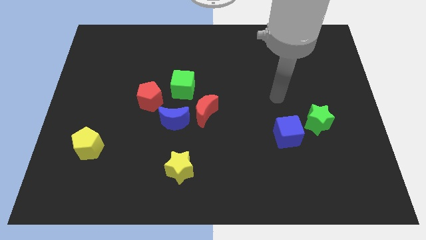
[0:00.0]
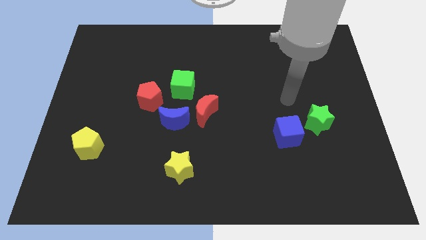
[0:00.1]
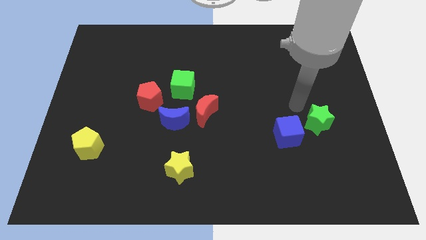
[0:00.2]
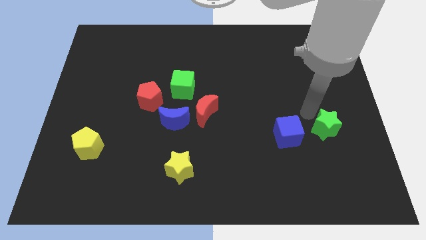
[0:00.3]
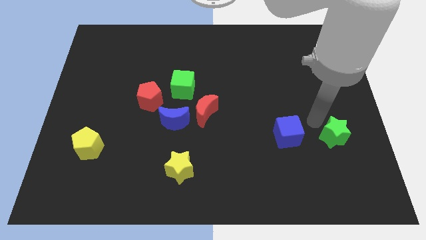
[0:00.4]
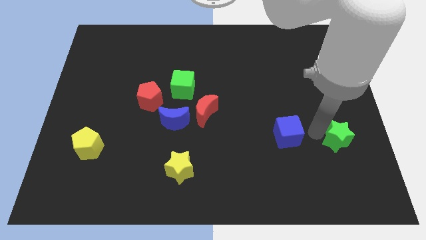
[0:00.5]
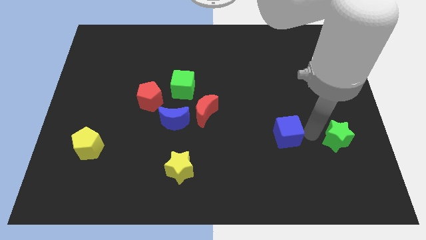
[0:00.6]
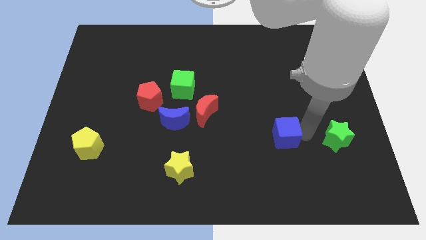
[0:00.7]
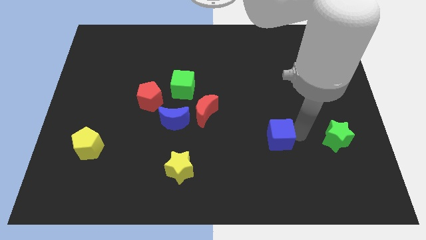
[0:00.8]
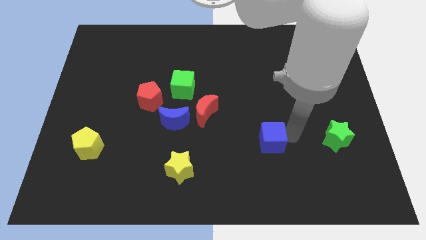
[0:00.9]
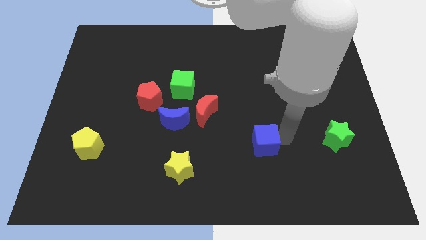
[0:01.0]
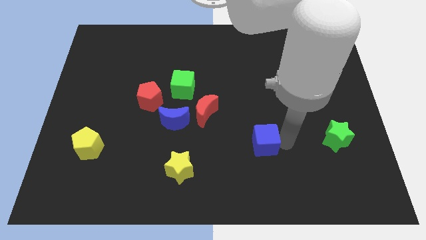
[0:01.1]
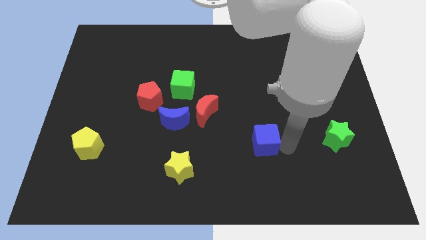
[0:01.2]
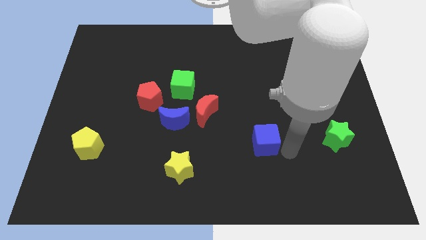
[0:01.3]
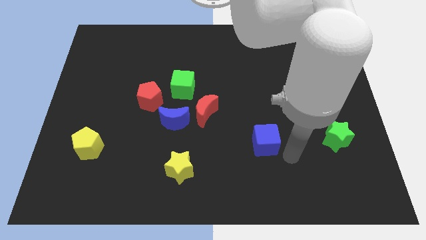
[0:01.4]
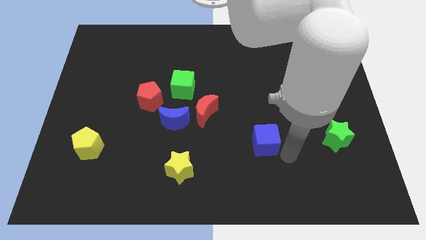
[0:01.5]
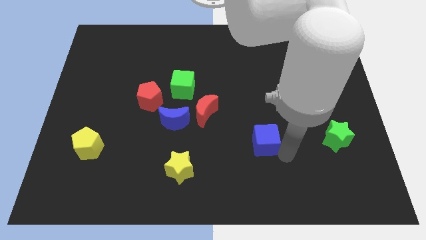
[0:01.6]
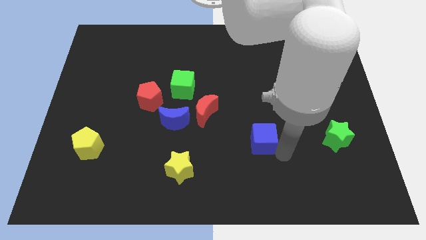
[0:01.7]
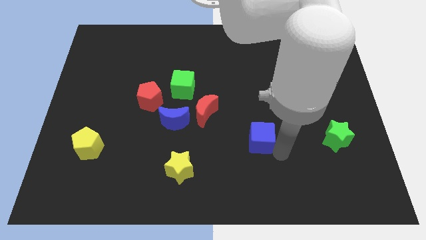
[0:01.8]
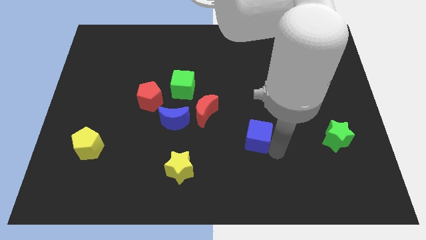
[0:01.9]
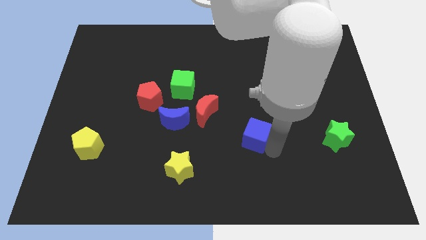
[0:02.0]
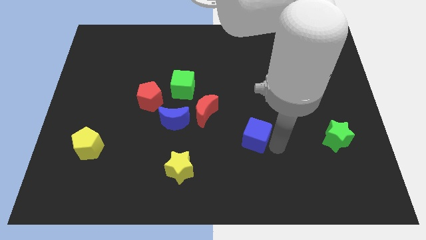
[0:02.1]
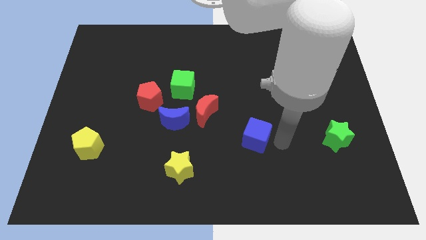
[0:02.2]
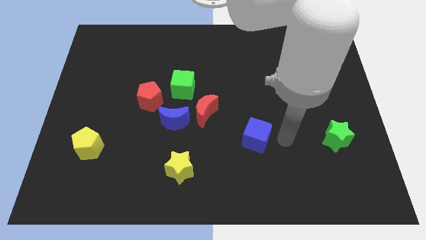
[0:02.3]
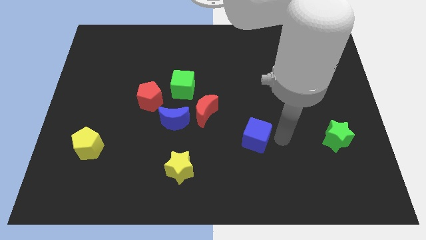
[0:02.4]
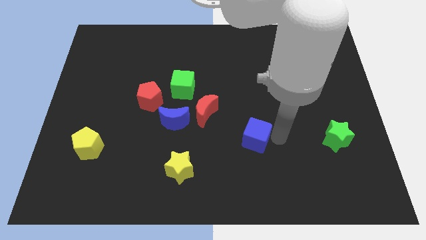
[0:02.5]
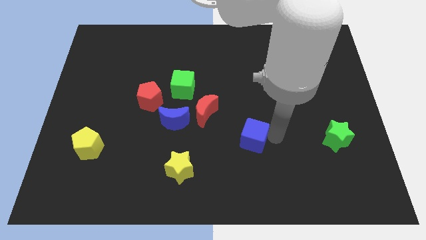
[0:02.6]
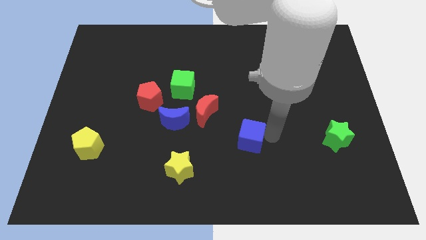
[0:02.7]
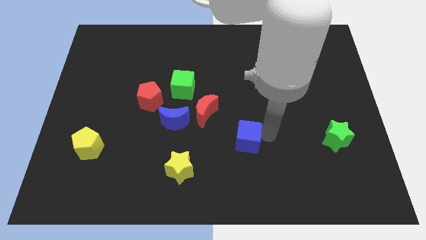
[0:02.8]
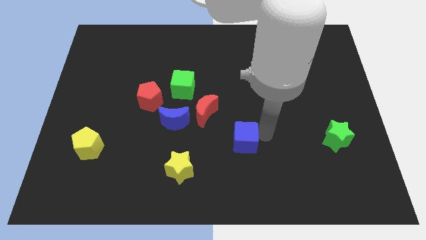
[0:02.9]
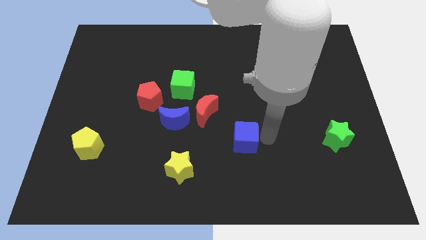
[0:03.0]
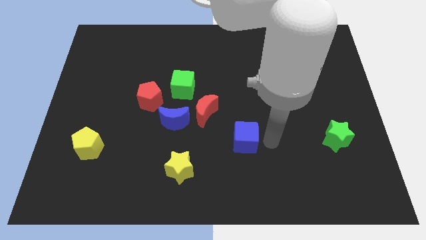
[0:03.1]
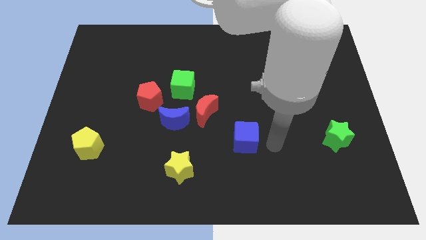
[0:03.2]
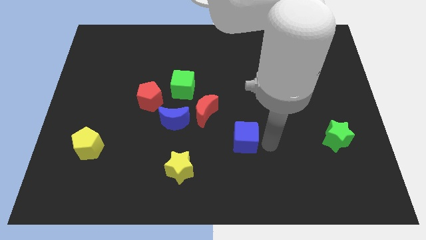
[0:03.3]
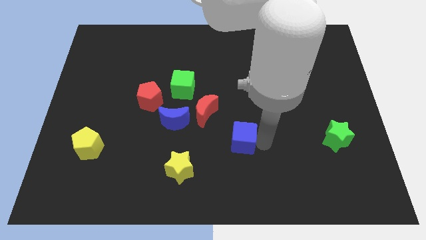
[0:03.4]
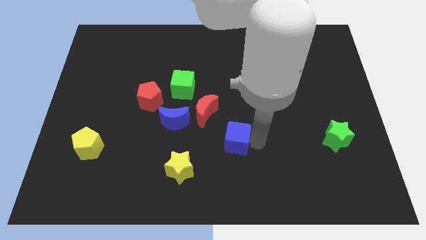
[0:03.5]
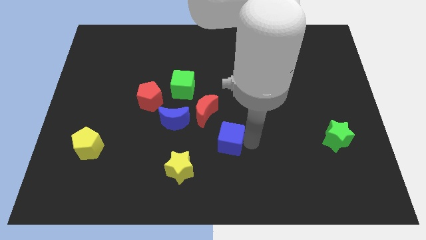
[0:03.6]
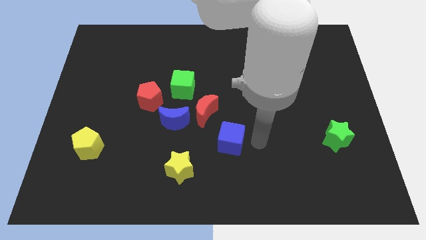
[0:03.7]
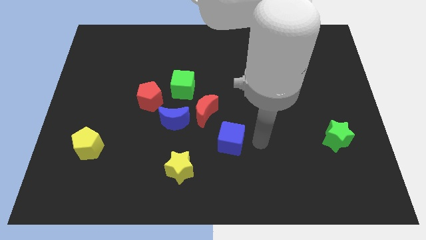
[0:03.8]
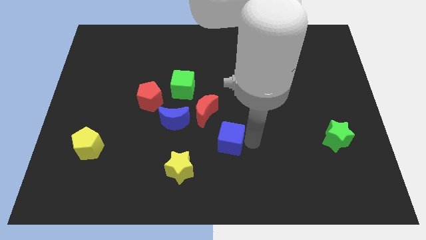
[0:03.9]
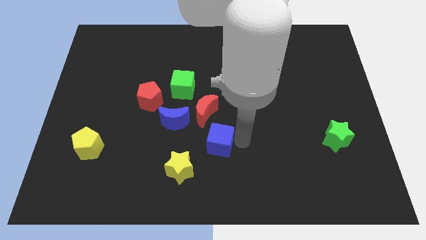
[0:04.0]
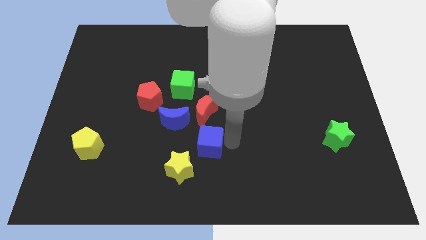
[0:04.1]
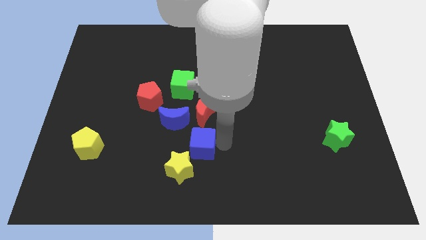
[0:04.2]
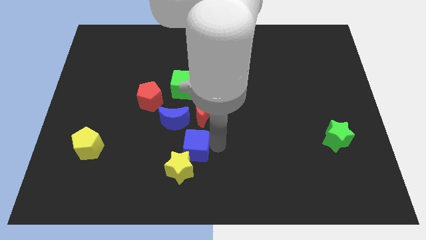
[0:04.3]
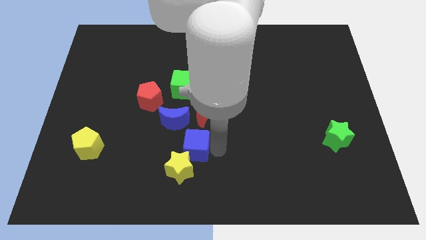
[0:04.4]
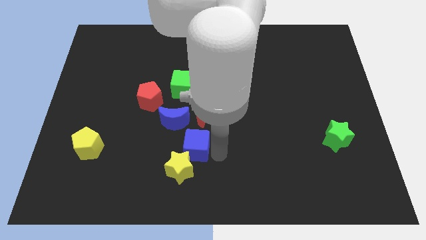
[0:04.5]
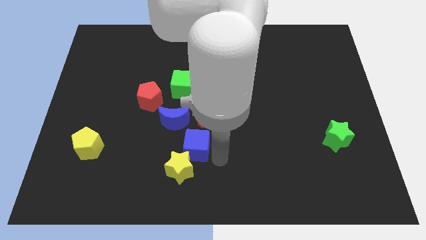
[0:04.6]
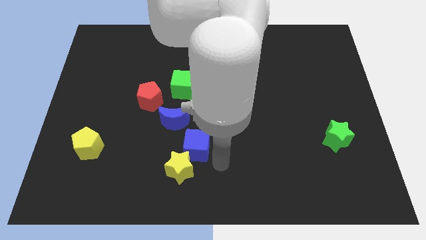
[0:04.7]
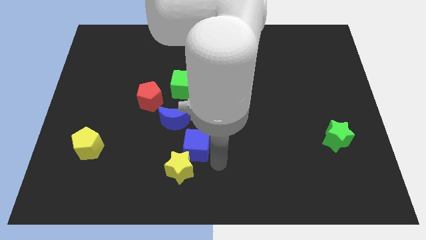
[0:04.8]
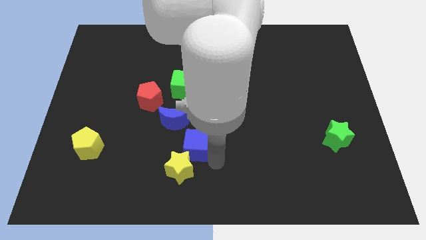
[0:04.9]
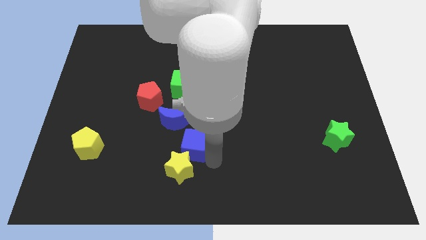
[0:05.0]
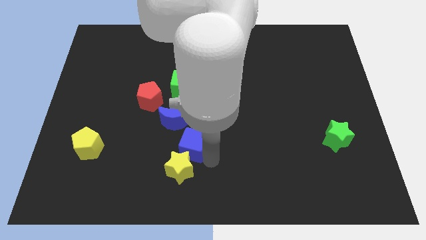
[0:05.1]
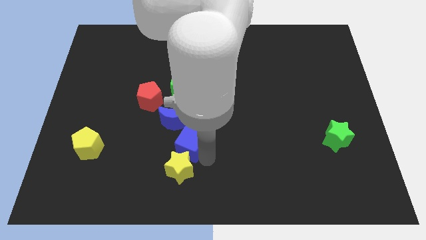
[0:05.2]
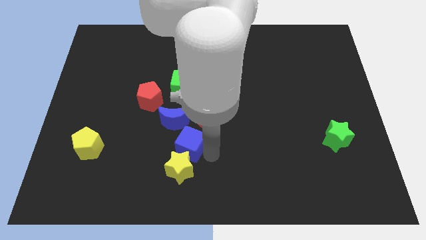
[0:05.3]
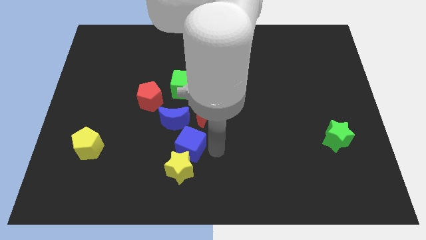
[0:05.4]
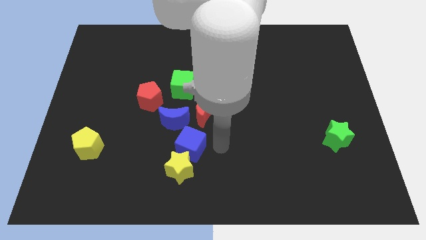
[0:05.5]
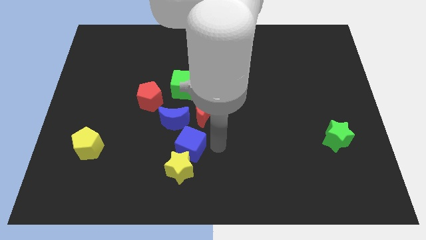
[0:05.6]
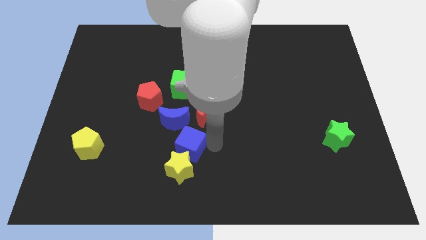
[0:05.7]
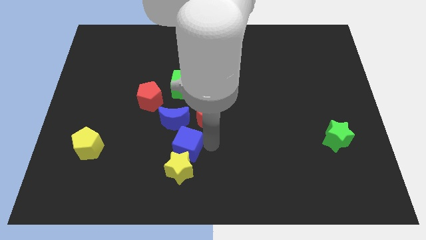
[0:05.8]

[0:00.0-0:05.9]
push the blue cube to the top left of the yellow star

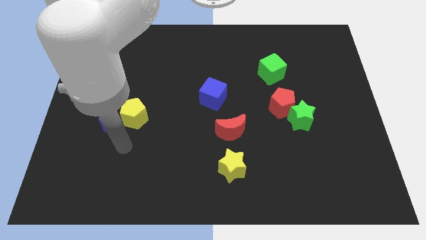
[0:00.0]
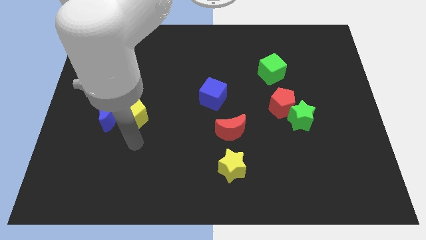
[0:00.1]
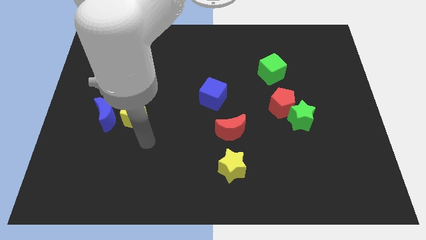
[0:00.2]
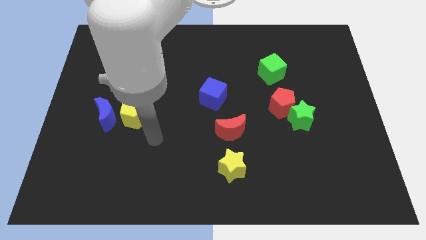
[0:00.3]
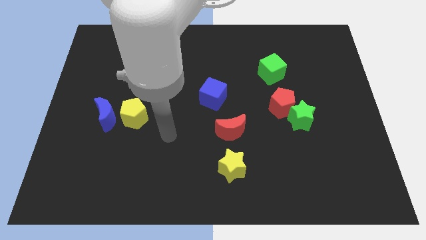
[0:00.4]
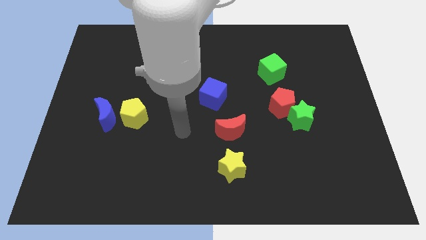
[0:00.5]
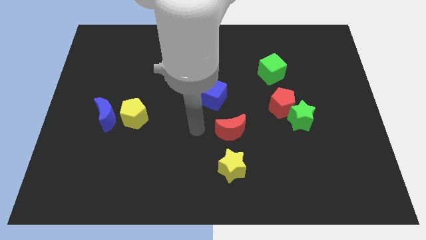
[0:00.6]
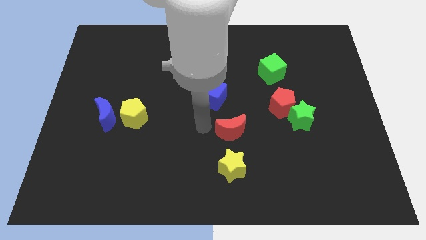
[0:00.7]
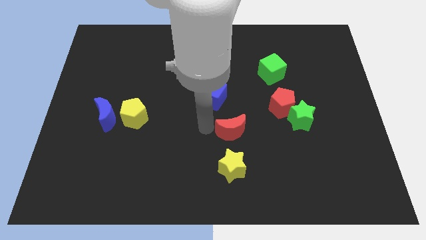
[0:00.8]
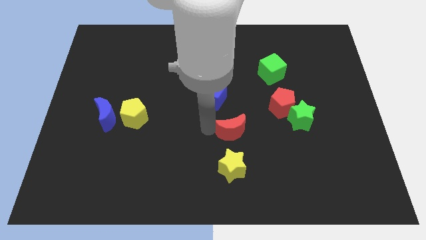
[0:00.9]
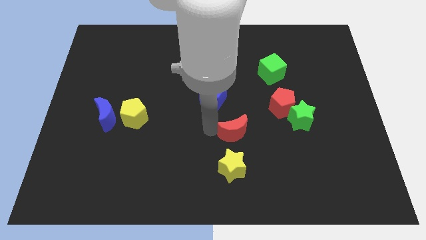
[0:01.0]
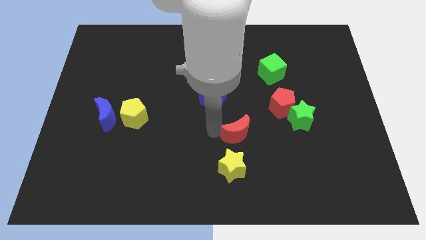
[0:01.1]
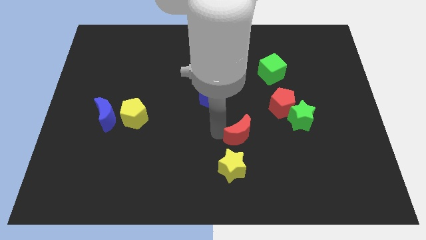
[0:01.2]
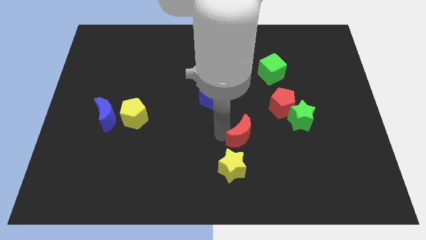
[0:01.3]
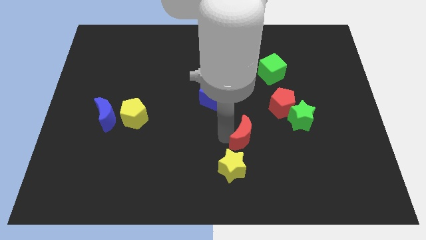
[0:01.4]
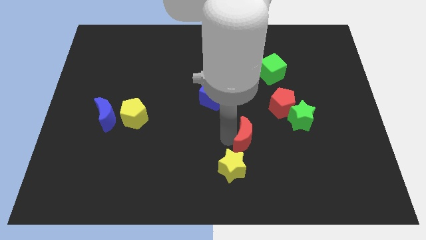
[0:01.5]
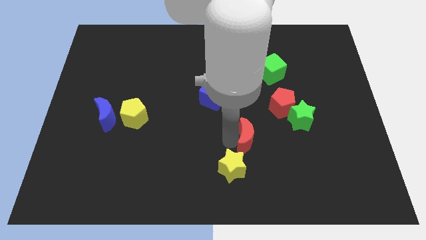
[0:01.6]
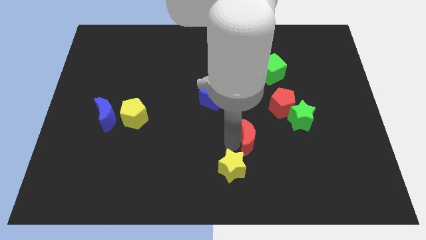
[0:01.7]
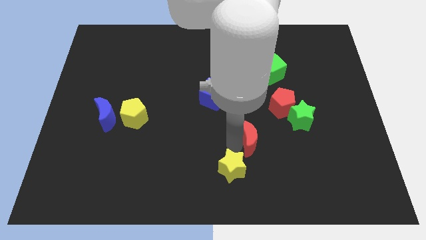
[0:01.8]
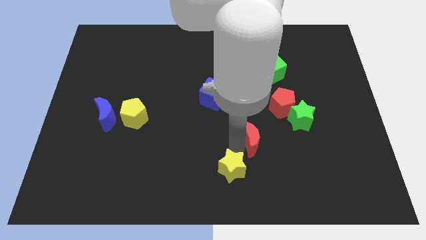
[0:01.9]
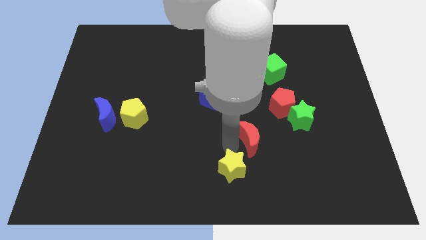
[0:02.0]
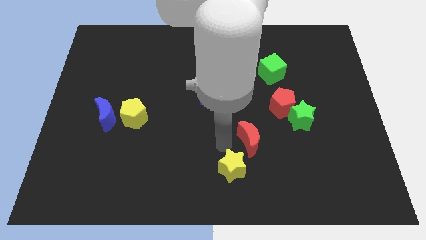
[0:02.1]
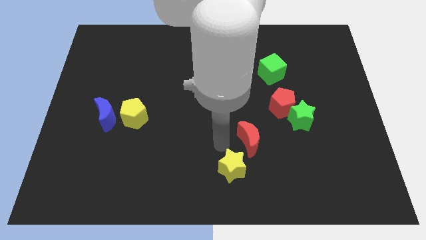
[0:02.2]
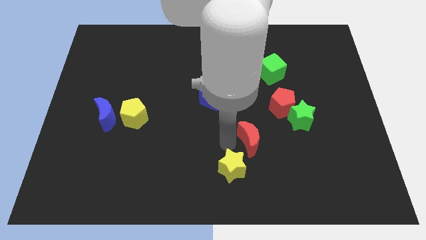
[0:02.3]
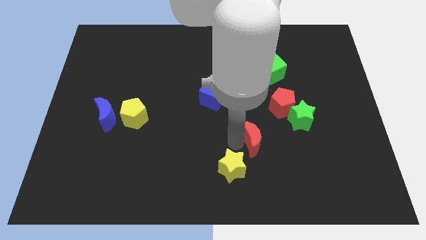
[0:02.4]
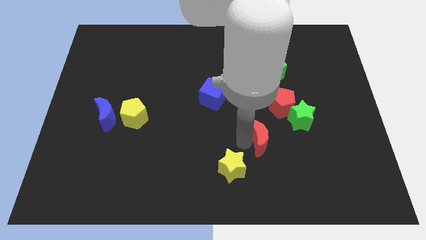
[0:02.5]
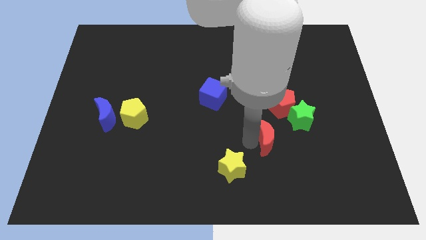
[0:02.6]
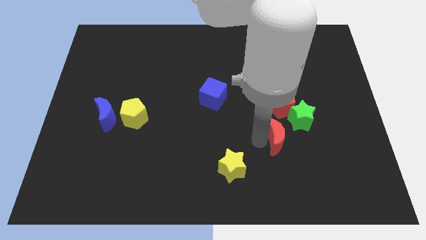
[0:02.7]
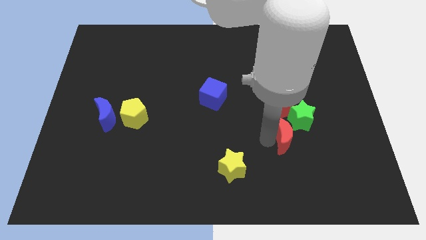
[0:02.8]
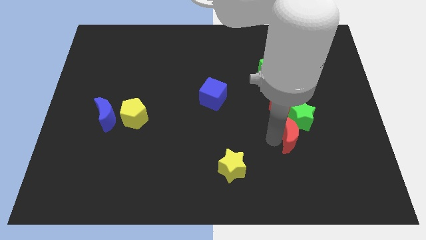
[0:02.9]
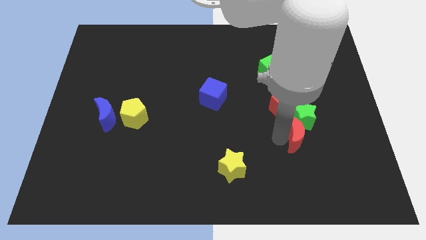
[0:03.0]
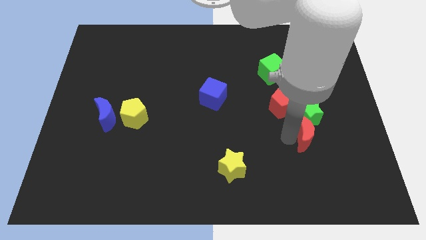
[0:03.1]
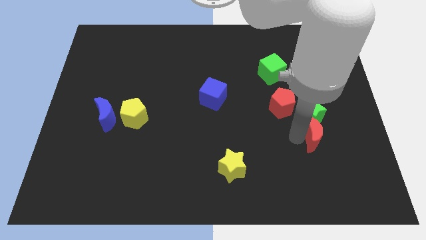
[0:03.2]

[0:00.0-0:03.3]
push the red moon to the bottom right side of the green star
